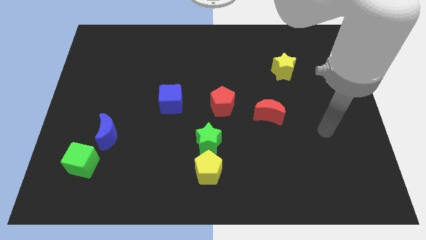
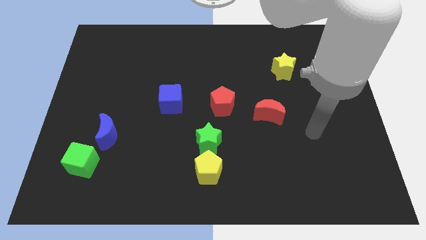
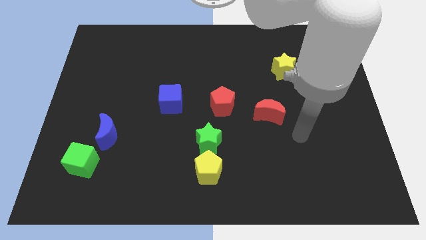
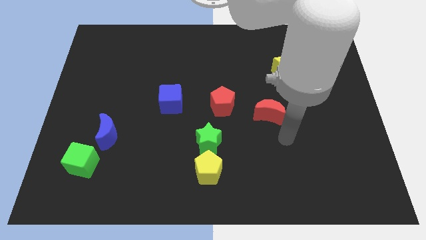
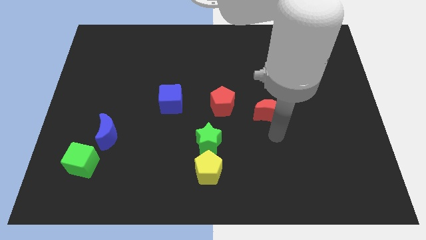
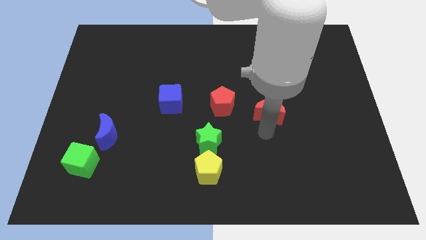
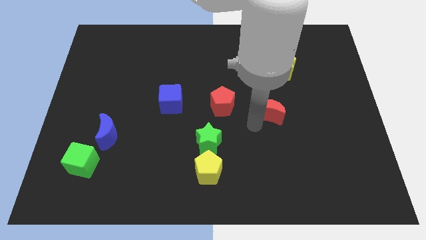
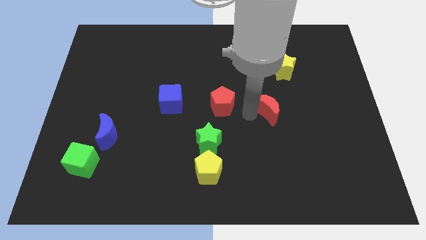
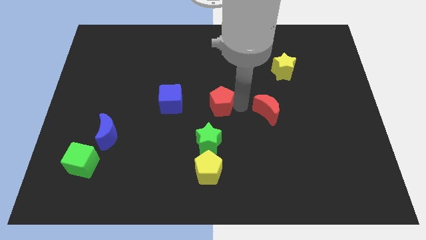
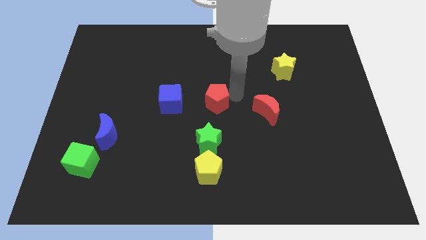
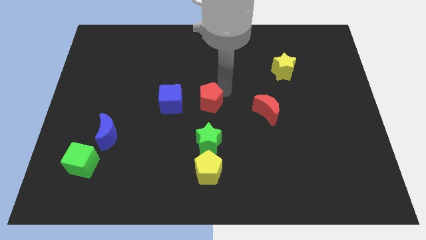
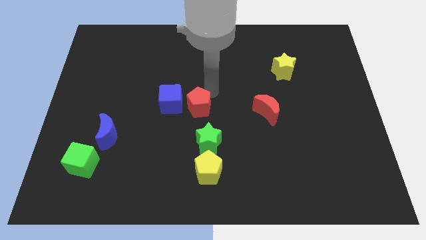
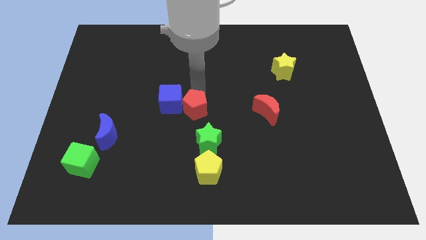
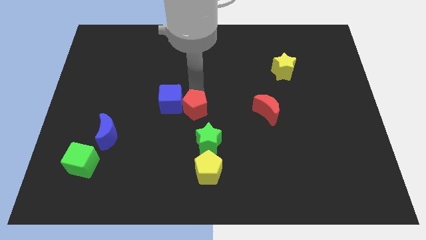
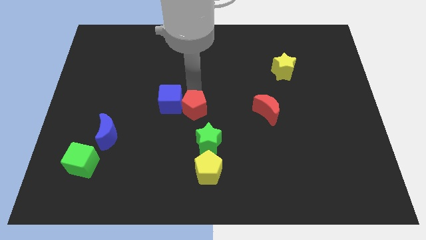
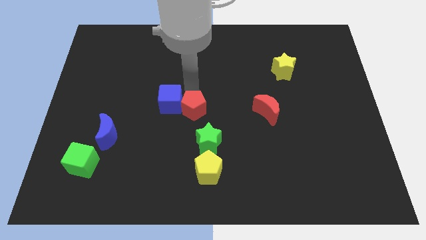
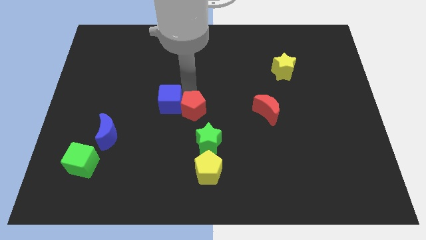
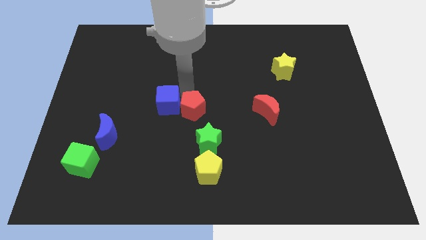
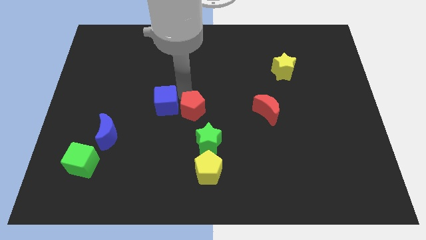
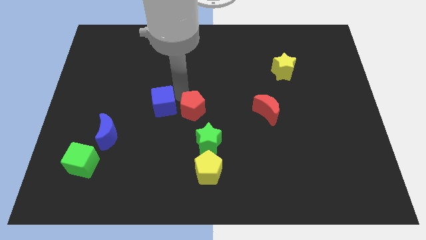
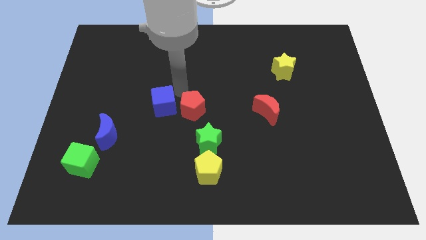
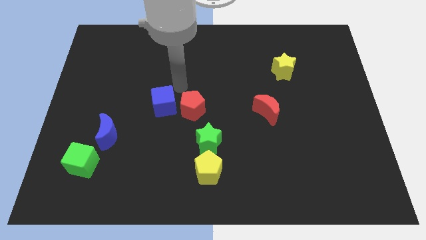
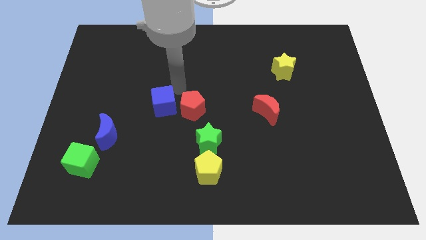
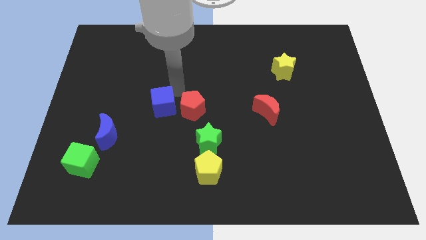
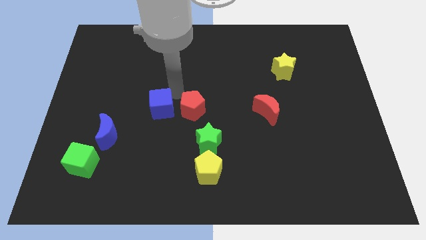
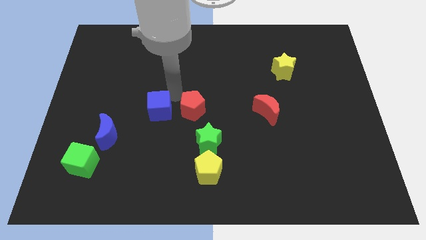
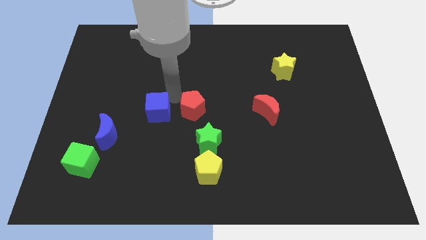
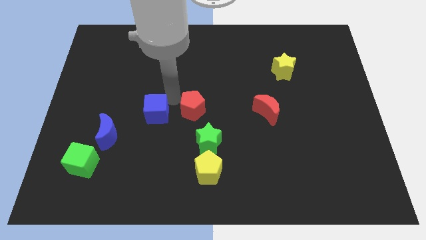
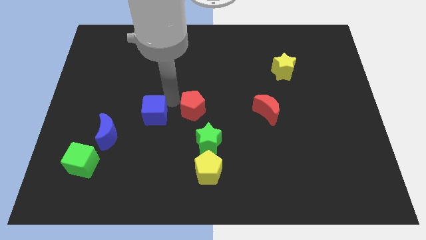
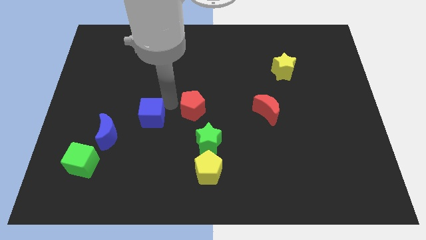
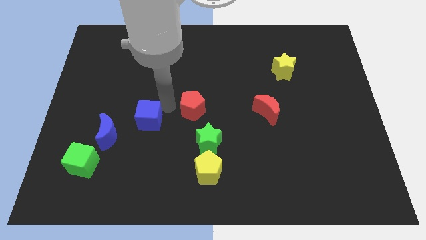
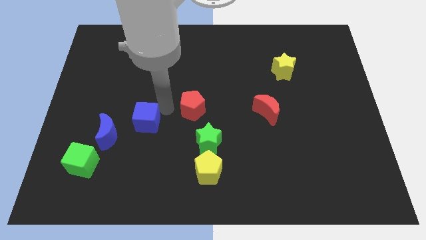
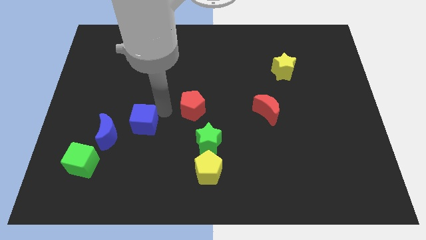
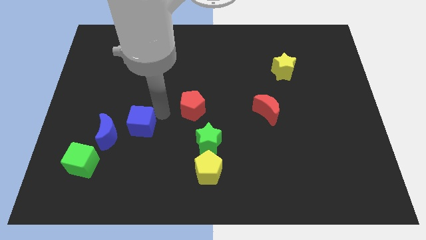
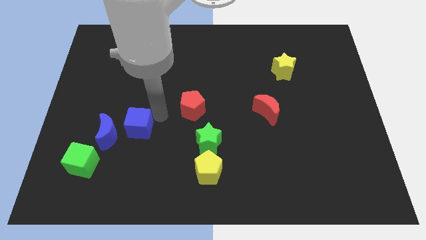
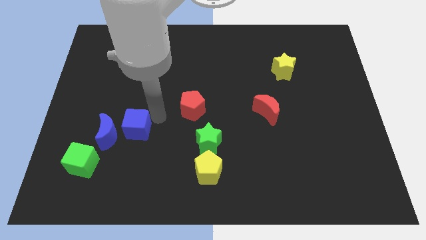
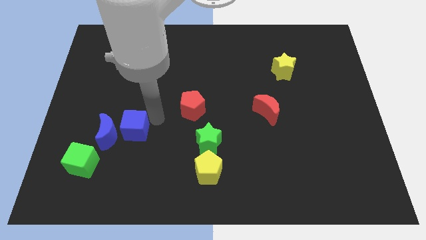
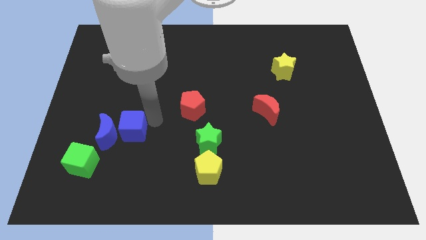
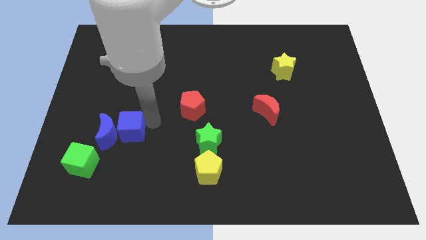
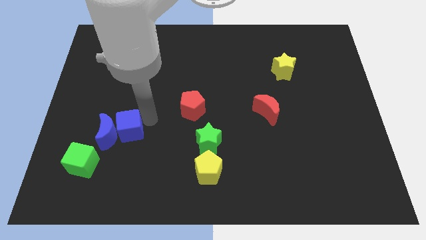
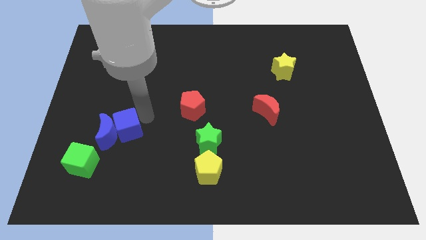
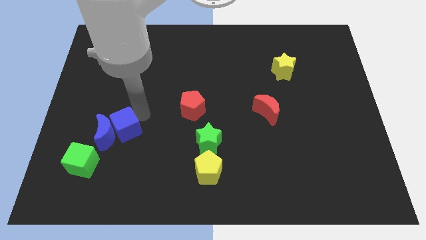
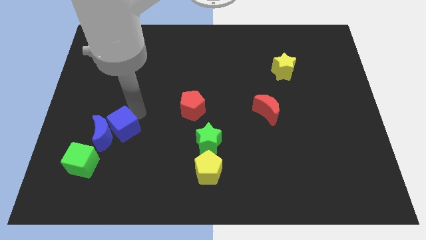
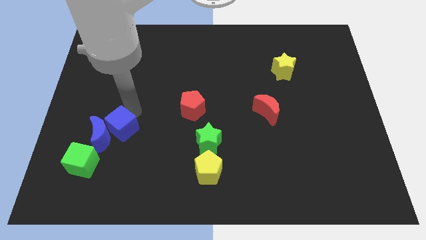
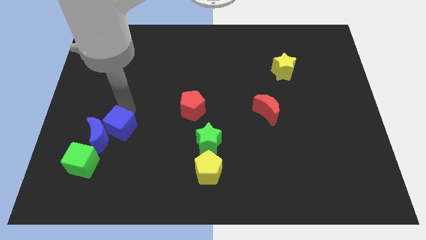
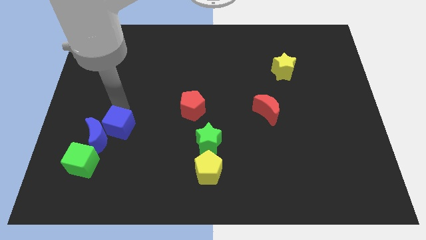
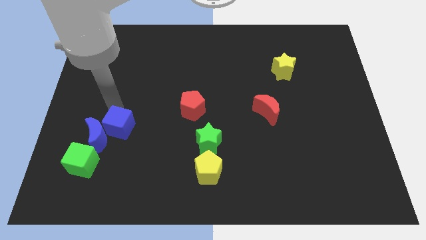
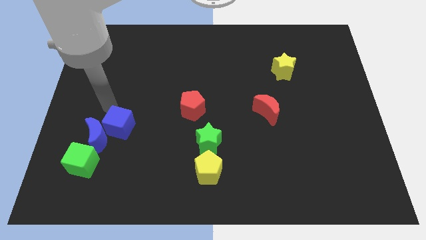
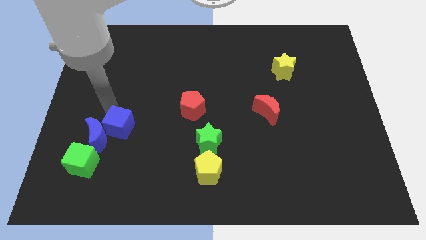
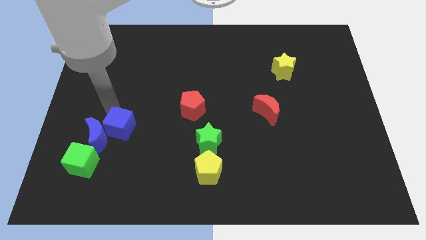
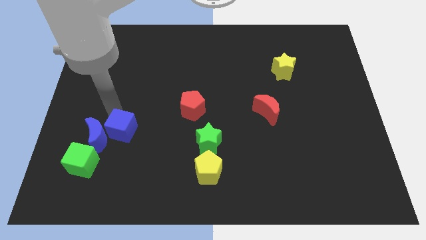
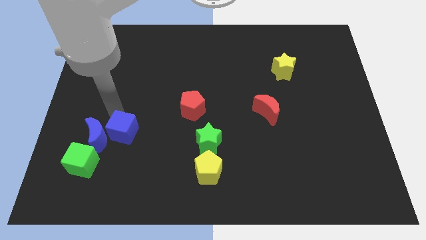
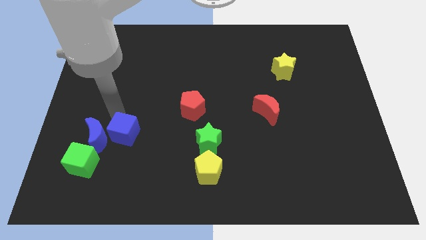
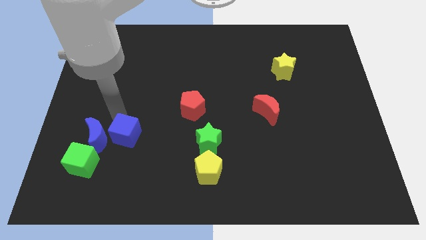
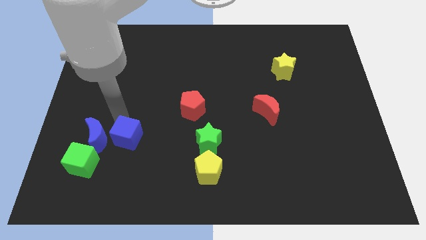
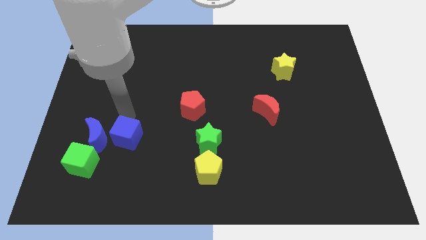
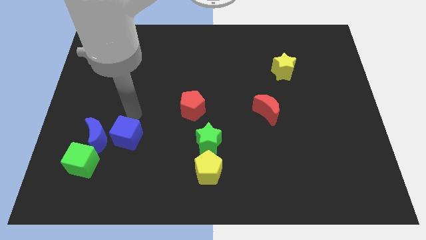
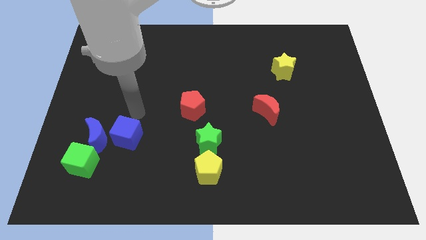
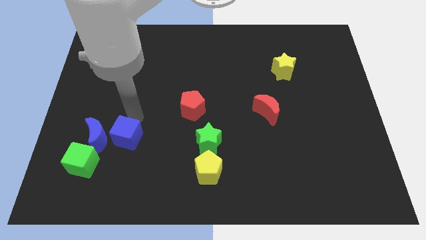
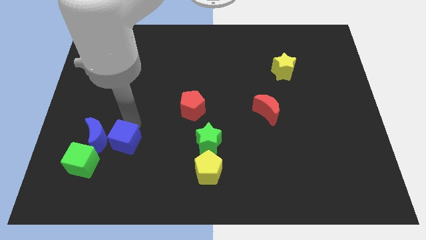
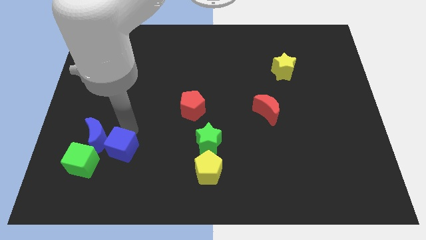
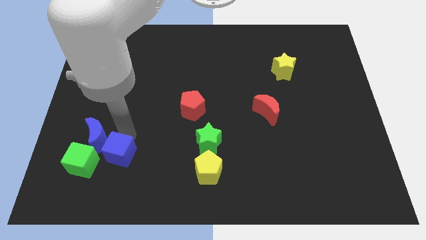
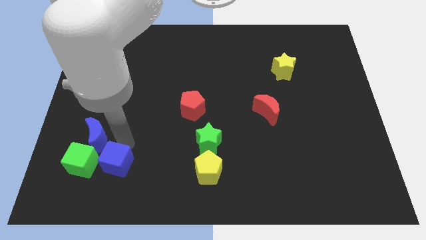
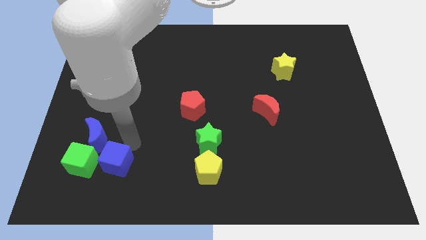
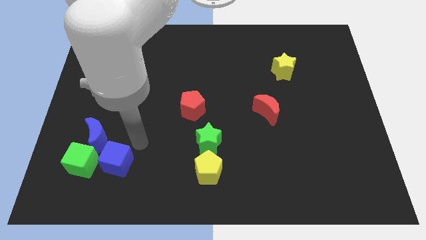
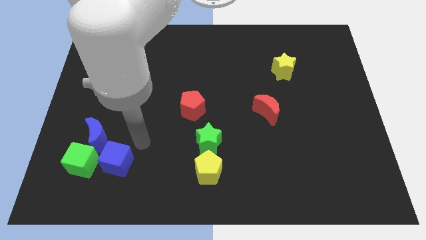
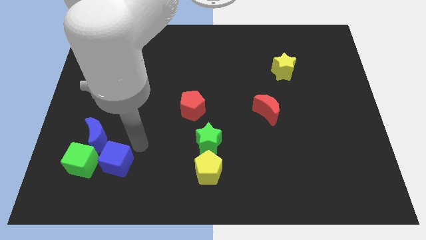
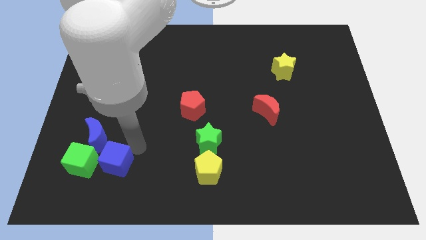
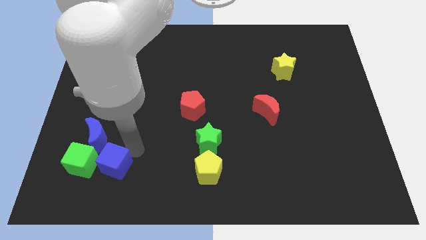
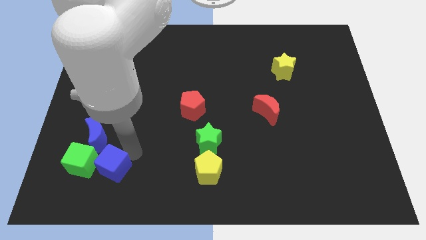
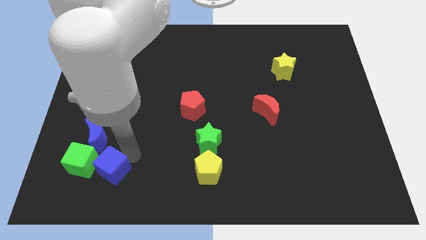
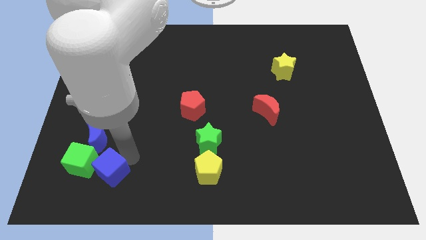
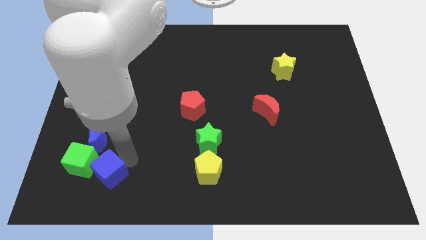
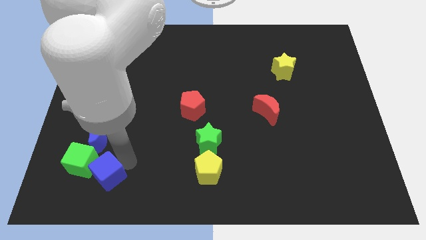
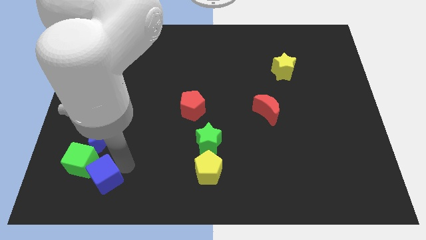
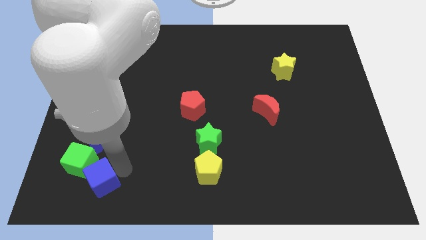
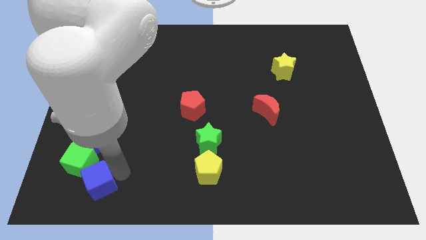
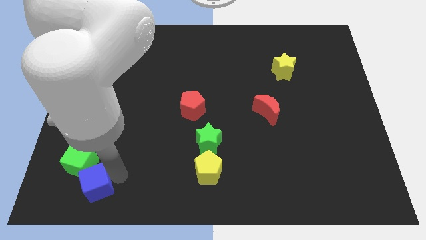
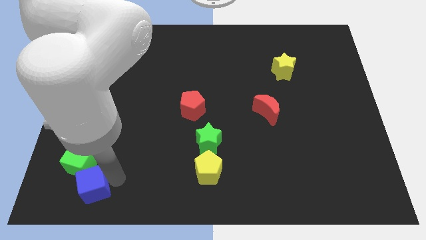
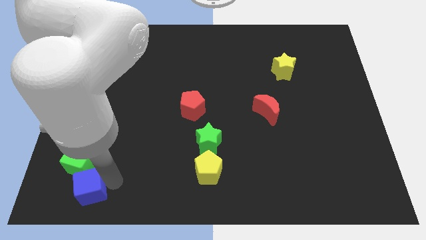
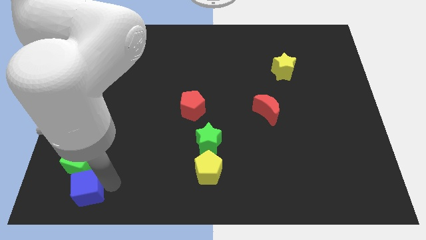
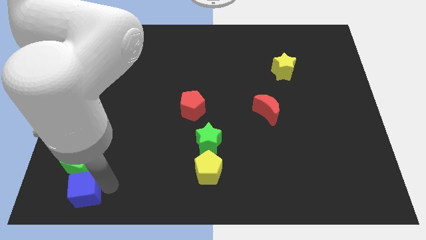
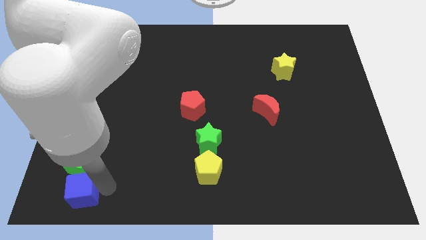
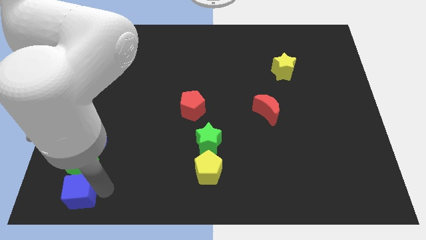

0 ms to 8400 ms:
put the blue cube to the bottom left corner
